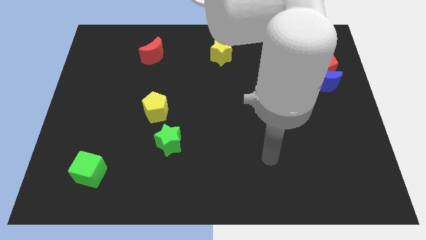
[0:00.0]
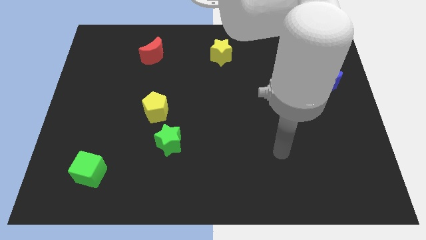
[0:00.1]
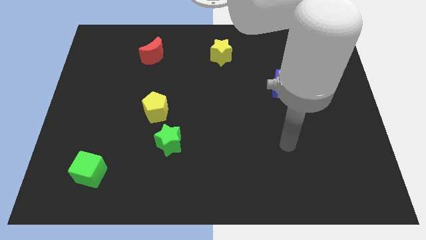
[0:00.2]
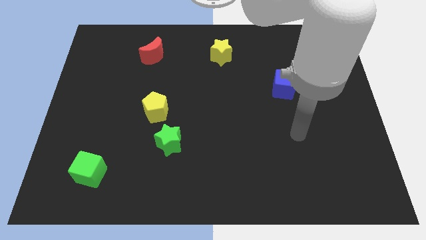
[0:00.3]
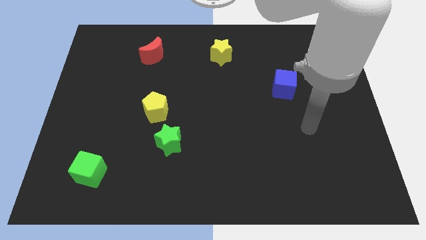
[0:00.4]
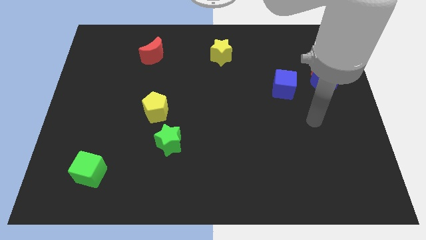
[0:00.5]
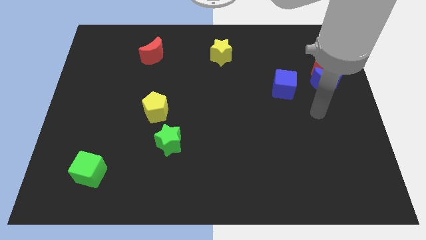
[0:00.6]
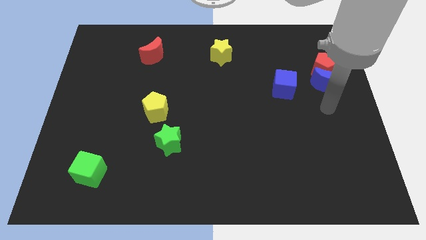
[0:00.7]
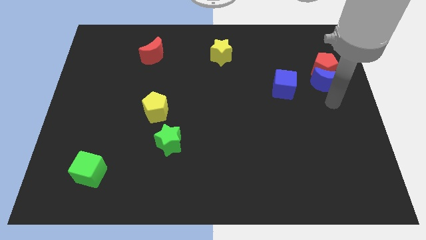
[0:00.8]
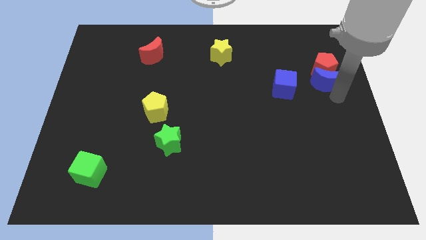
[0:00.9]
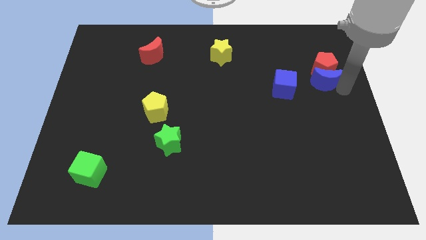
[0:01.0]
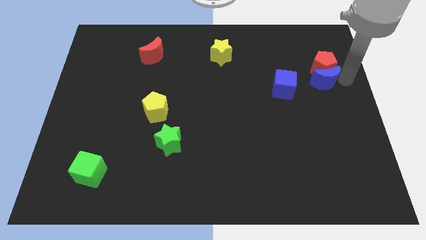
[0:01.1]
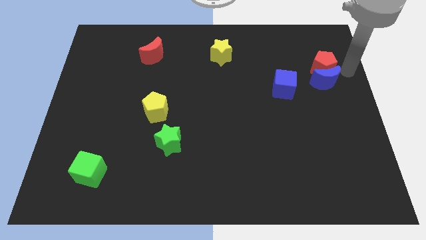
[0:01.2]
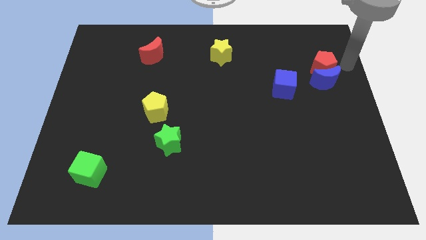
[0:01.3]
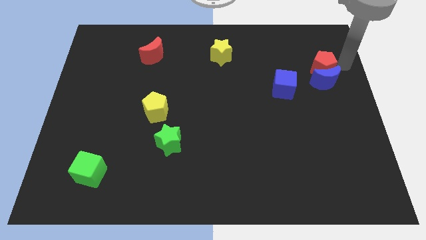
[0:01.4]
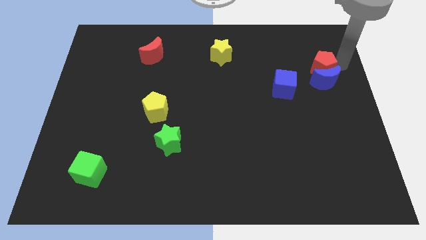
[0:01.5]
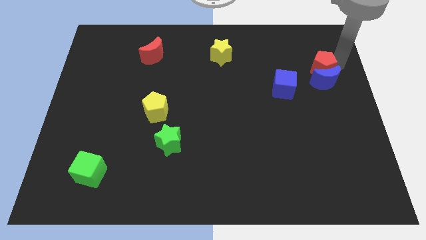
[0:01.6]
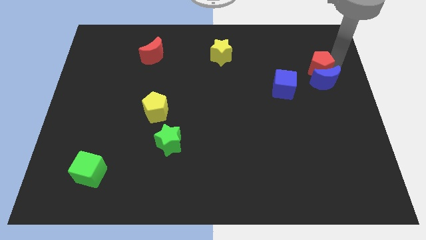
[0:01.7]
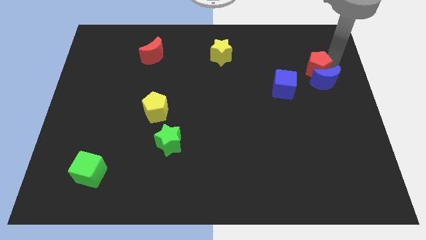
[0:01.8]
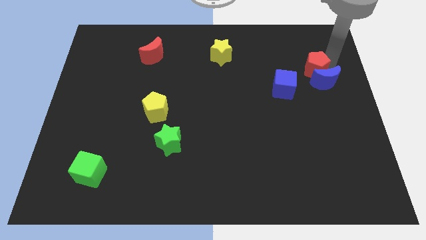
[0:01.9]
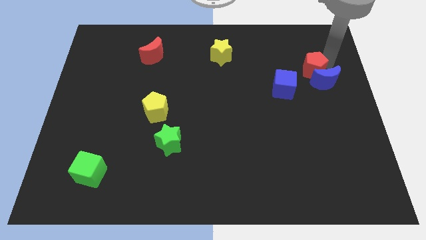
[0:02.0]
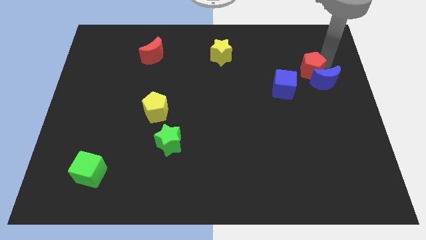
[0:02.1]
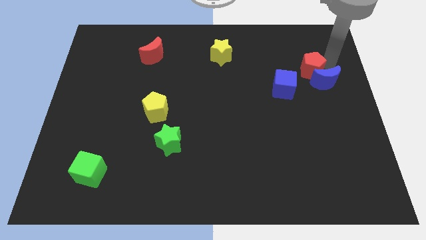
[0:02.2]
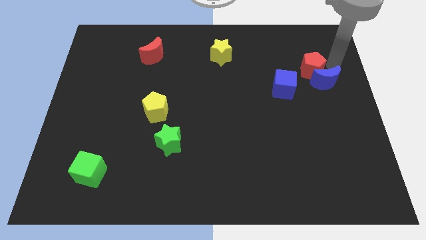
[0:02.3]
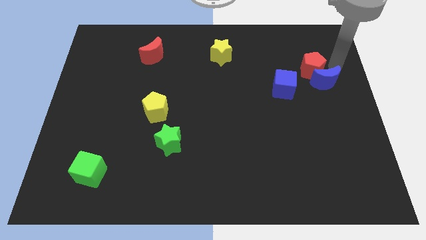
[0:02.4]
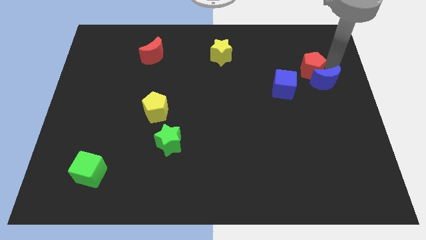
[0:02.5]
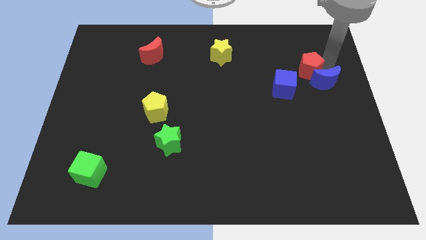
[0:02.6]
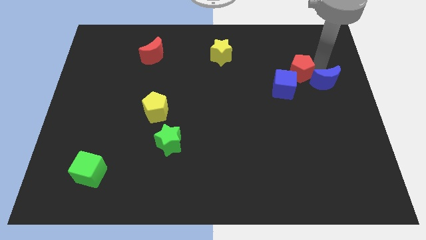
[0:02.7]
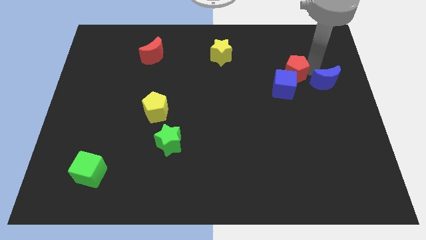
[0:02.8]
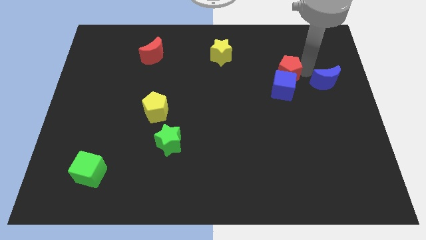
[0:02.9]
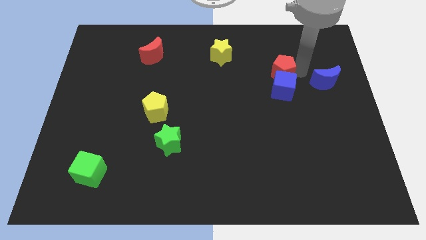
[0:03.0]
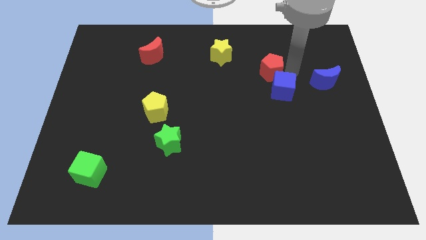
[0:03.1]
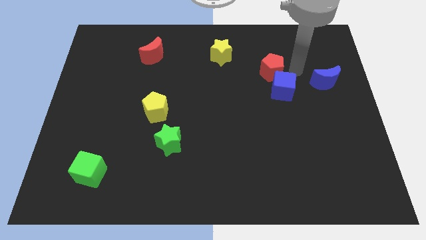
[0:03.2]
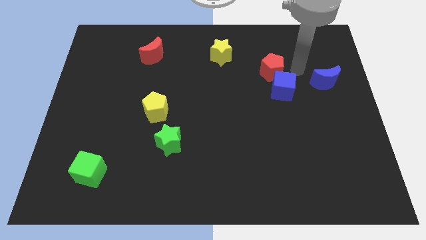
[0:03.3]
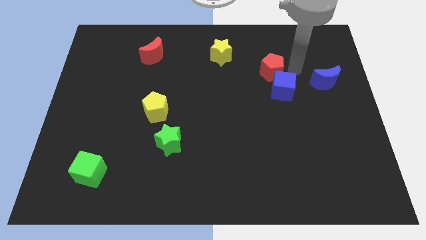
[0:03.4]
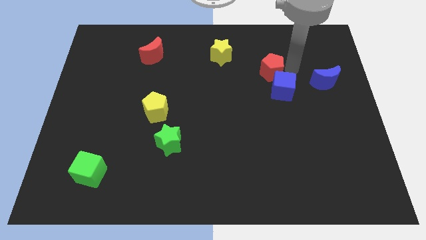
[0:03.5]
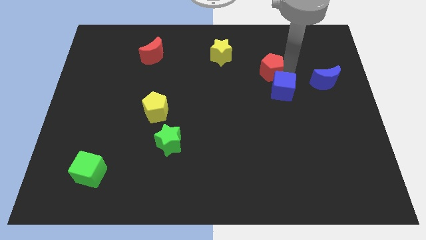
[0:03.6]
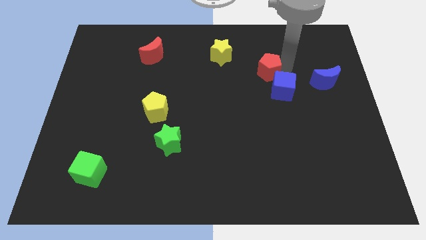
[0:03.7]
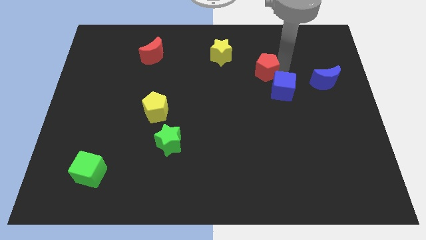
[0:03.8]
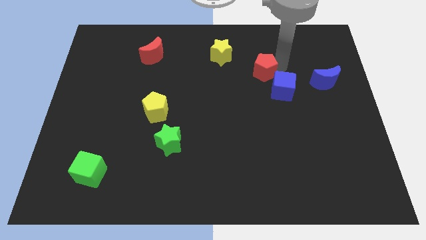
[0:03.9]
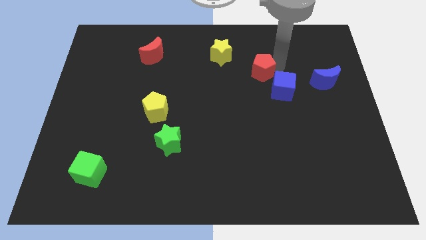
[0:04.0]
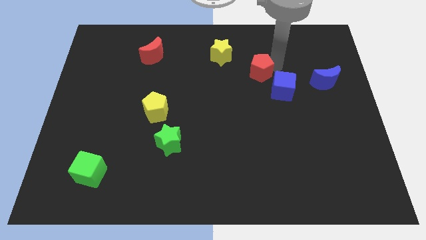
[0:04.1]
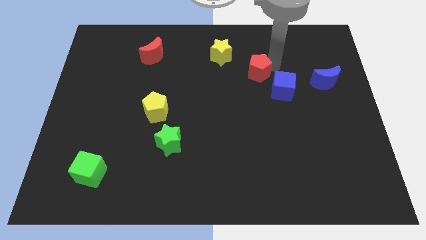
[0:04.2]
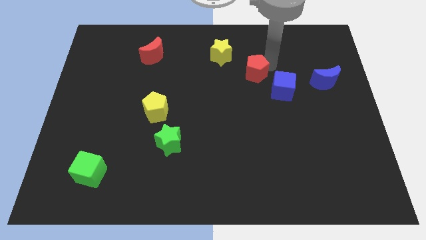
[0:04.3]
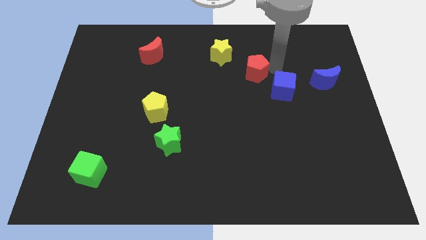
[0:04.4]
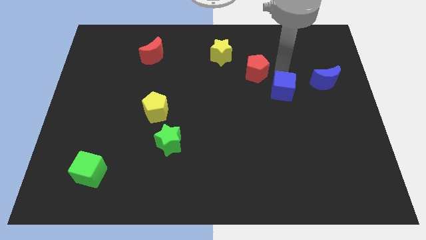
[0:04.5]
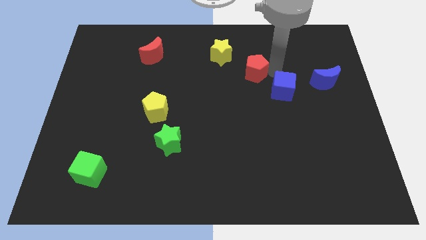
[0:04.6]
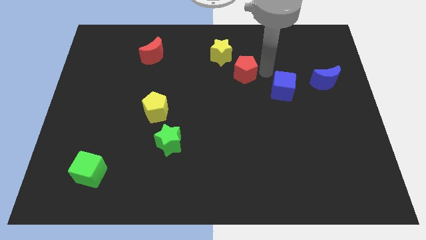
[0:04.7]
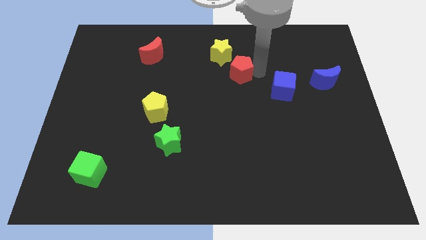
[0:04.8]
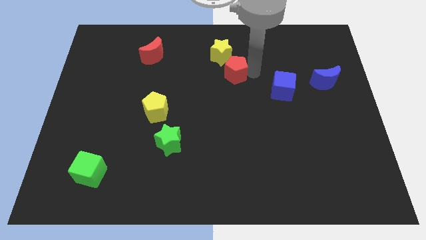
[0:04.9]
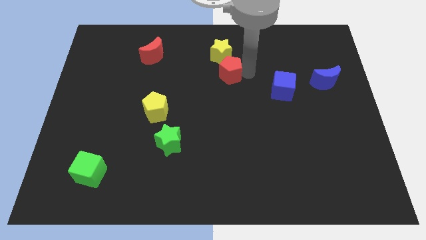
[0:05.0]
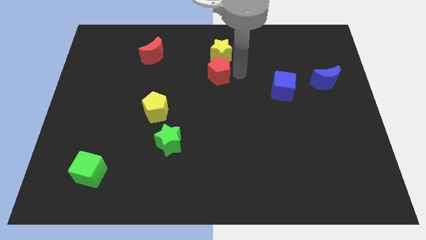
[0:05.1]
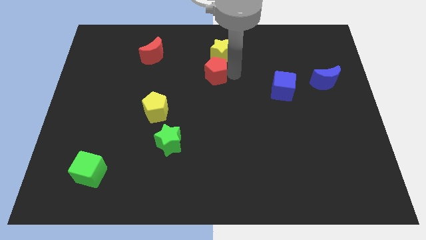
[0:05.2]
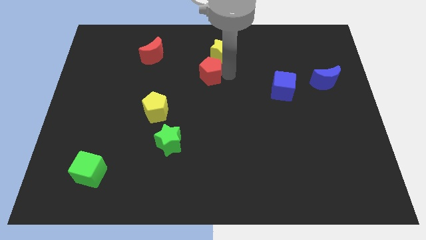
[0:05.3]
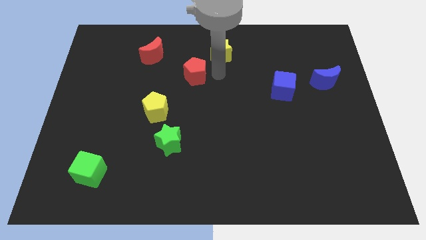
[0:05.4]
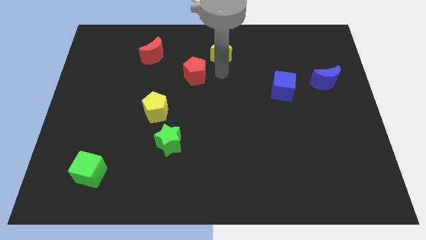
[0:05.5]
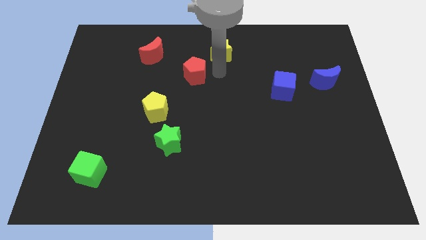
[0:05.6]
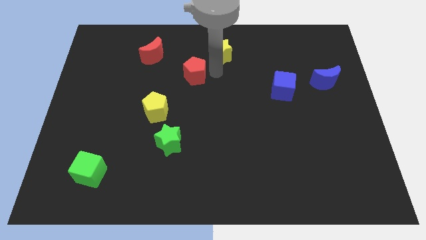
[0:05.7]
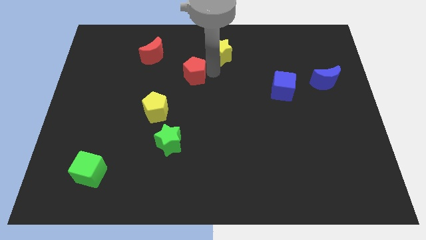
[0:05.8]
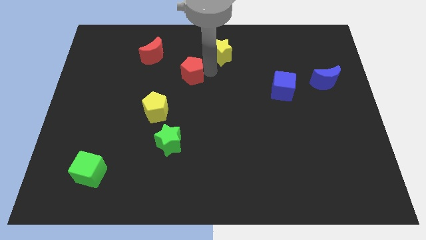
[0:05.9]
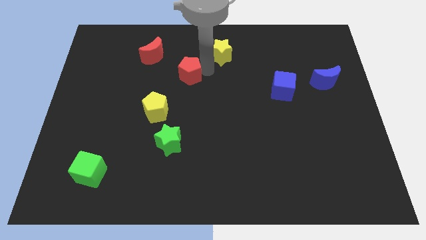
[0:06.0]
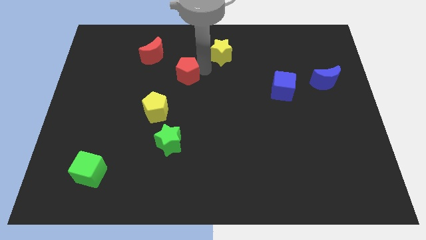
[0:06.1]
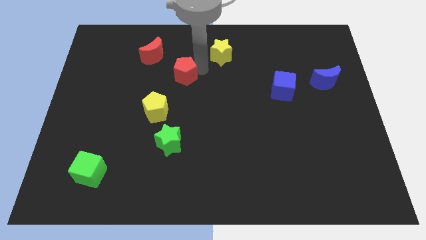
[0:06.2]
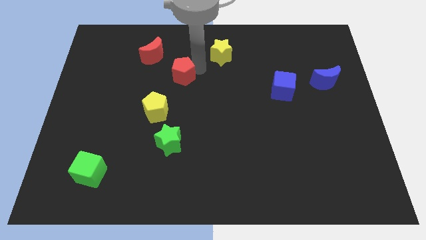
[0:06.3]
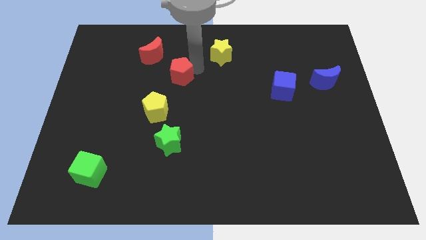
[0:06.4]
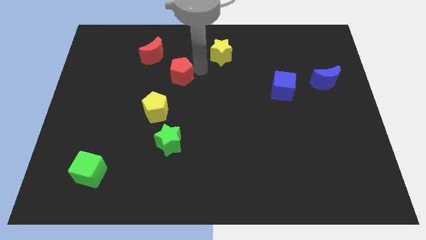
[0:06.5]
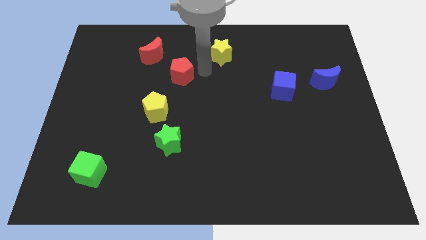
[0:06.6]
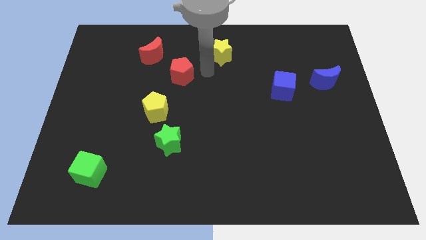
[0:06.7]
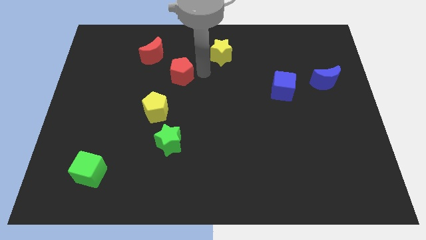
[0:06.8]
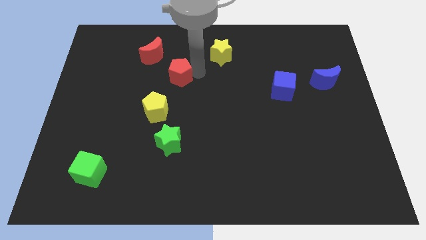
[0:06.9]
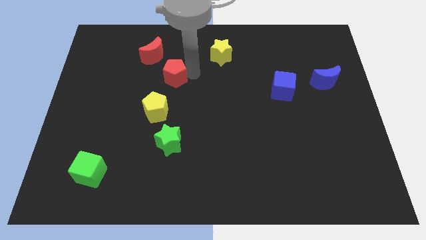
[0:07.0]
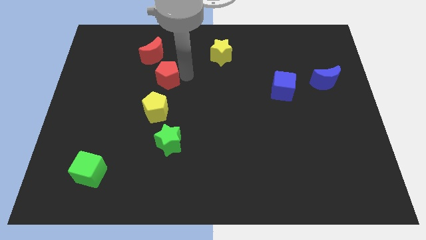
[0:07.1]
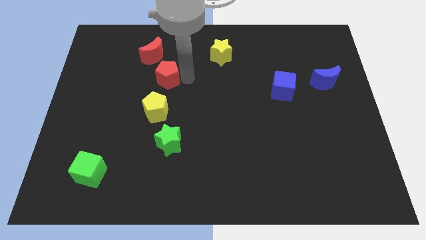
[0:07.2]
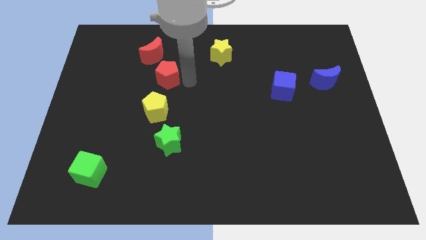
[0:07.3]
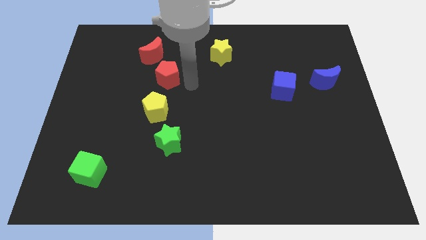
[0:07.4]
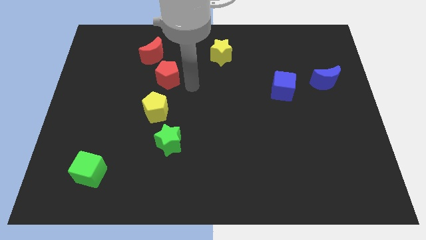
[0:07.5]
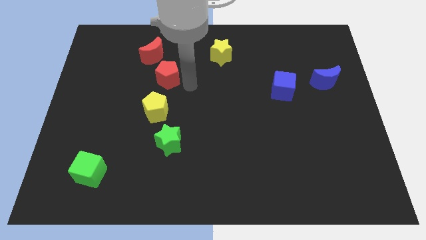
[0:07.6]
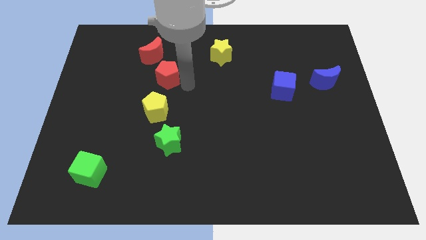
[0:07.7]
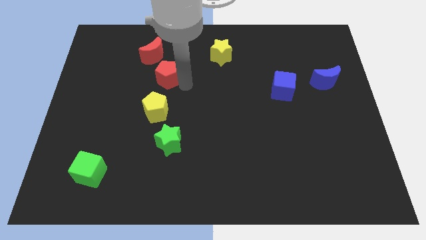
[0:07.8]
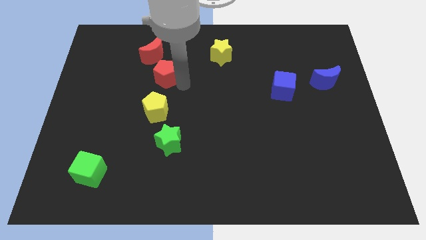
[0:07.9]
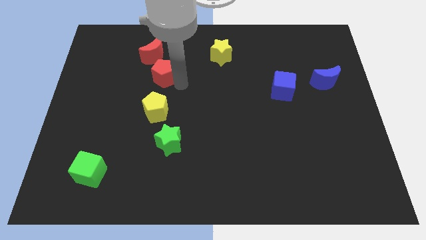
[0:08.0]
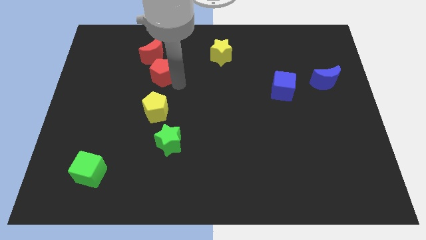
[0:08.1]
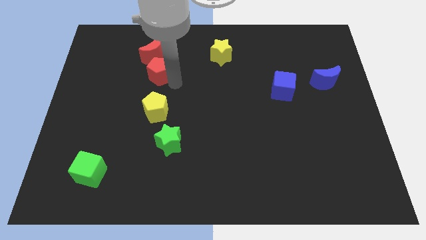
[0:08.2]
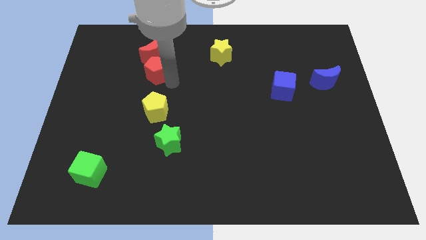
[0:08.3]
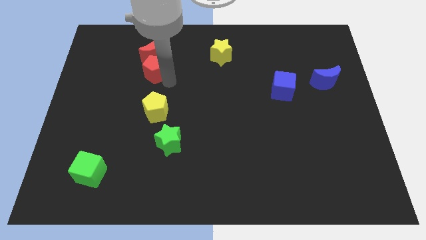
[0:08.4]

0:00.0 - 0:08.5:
put the red pentagon to the bottom left of the red moon
